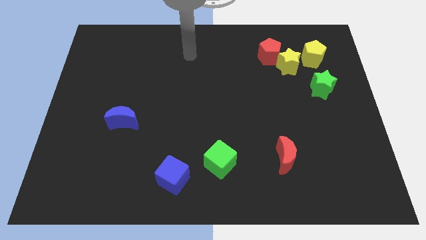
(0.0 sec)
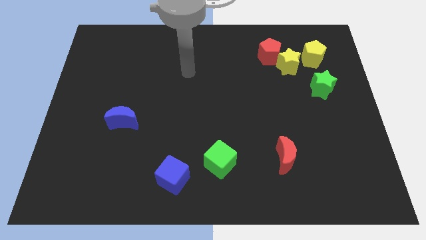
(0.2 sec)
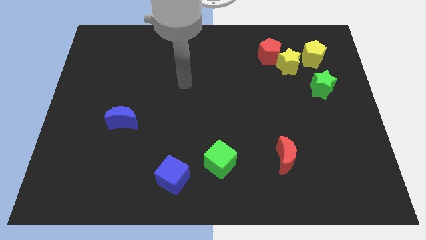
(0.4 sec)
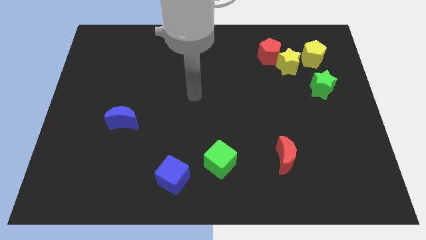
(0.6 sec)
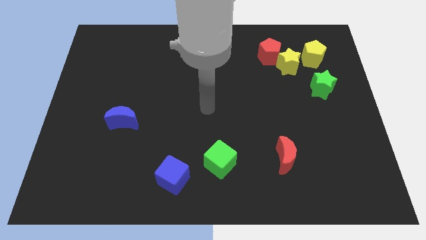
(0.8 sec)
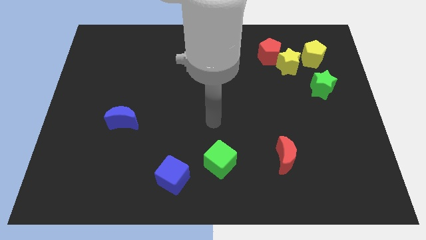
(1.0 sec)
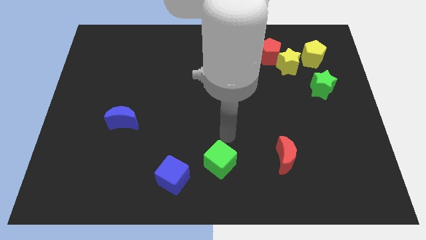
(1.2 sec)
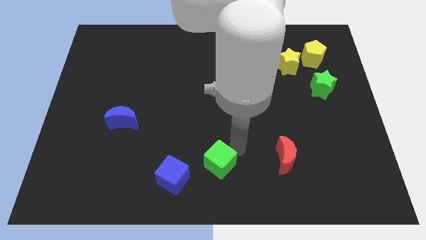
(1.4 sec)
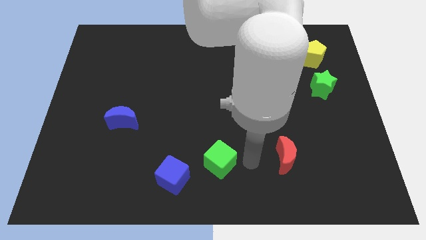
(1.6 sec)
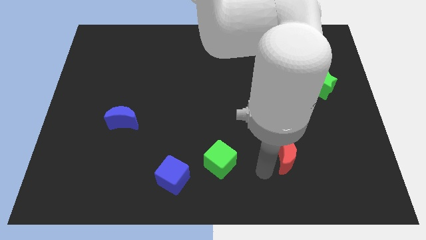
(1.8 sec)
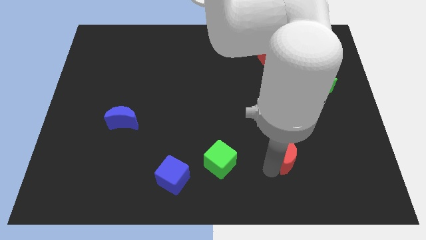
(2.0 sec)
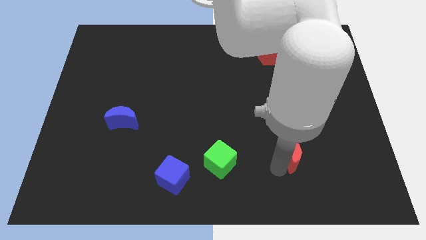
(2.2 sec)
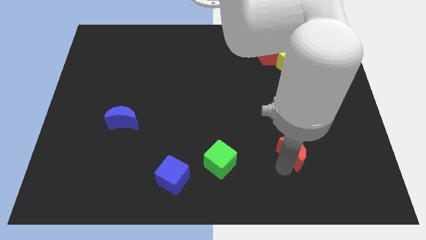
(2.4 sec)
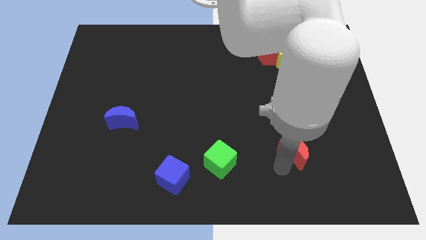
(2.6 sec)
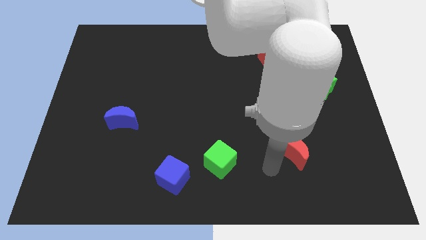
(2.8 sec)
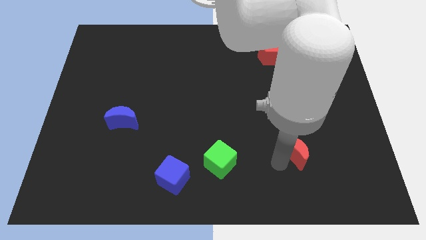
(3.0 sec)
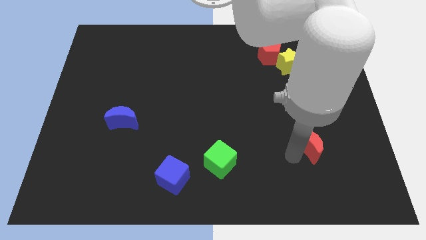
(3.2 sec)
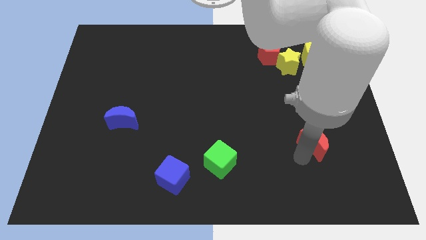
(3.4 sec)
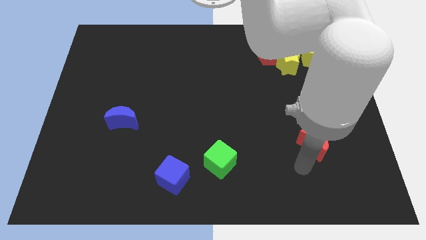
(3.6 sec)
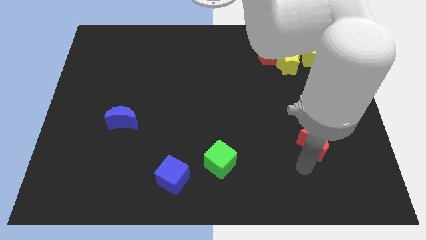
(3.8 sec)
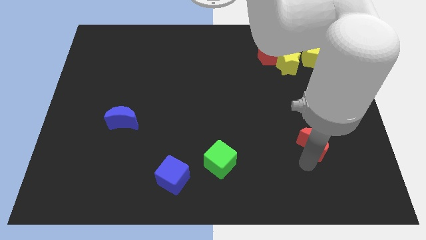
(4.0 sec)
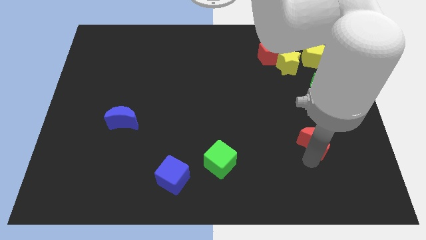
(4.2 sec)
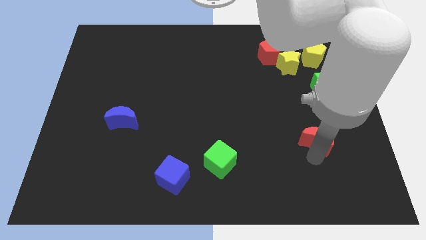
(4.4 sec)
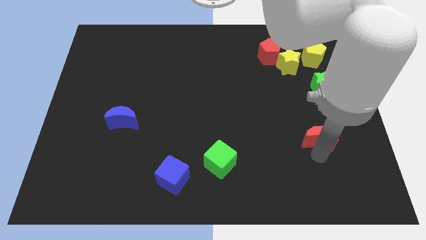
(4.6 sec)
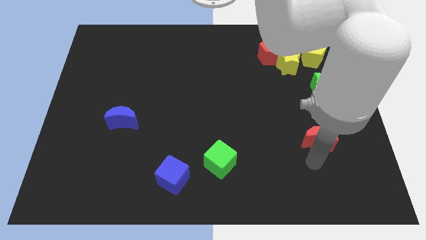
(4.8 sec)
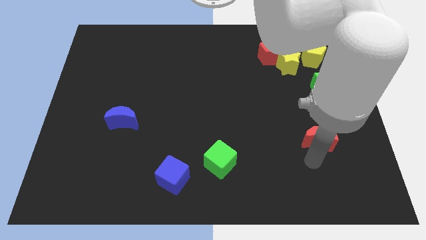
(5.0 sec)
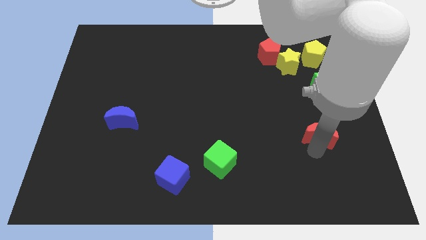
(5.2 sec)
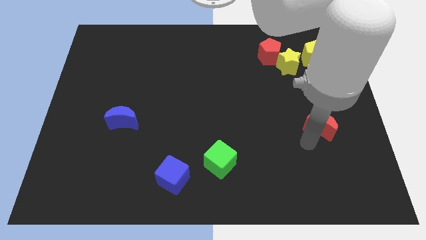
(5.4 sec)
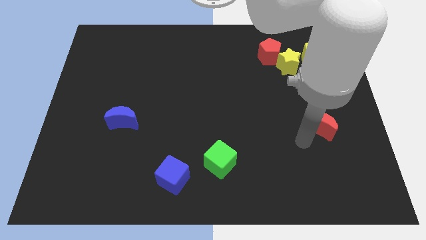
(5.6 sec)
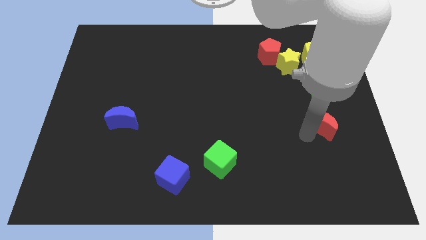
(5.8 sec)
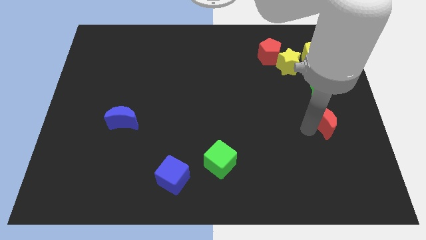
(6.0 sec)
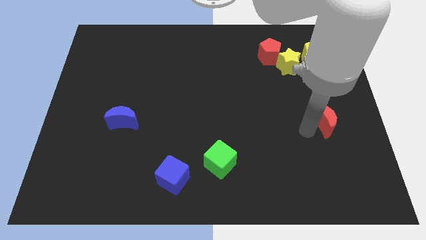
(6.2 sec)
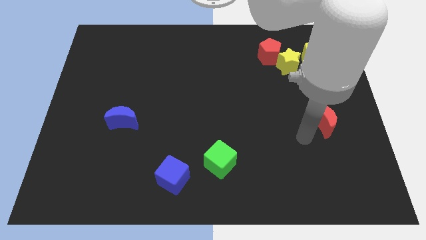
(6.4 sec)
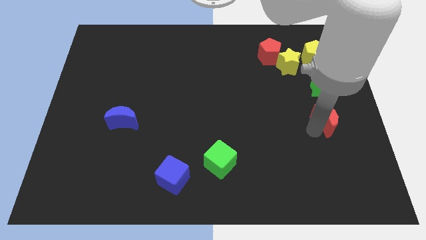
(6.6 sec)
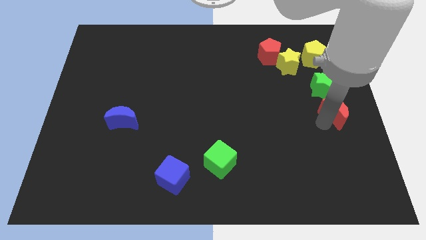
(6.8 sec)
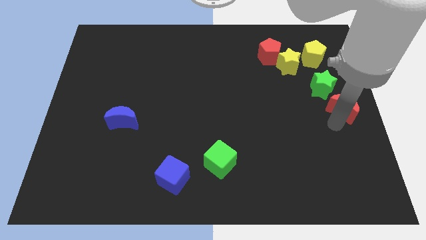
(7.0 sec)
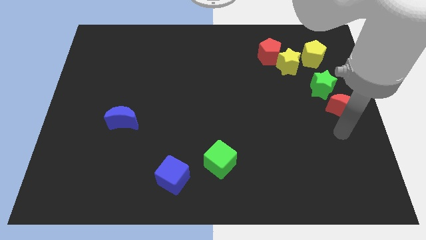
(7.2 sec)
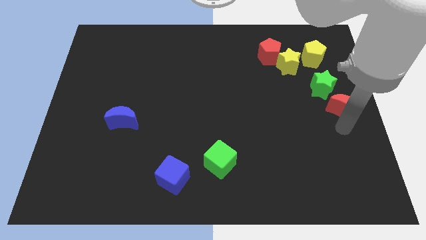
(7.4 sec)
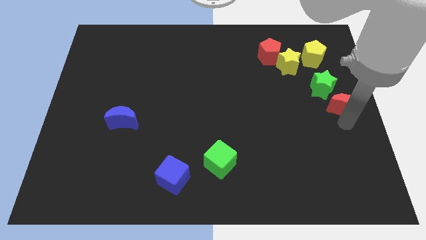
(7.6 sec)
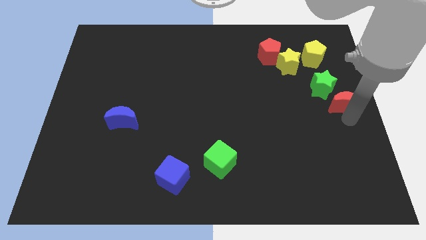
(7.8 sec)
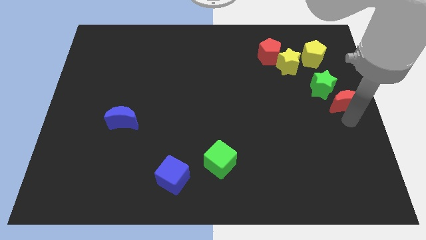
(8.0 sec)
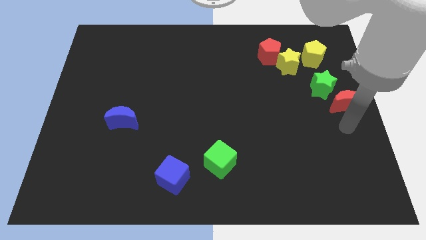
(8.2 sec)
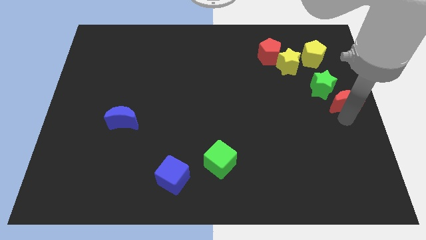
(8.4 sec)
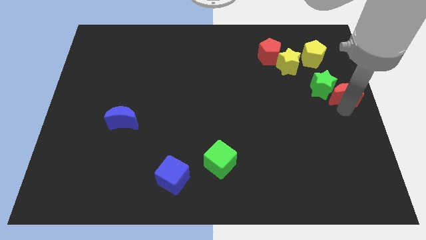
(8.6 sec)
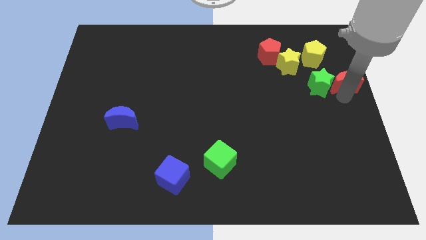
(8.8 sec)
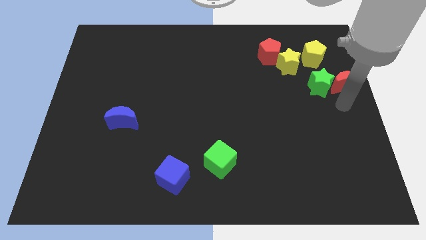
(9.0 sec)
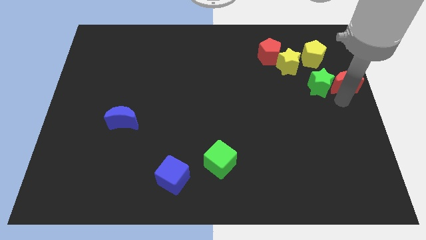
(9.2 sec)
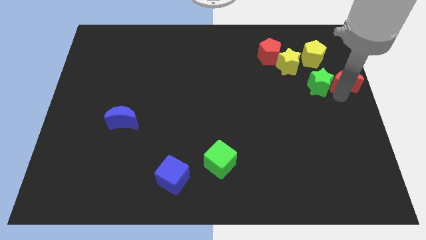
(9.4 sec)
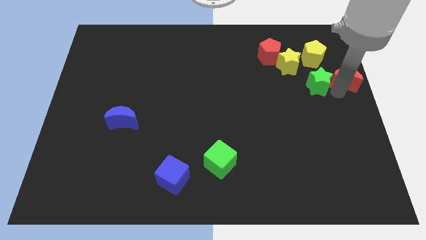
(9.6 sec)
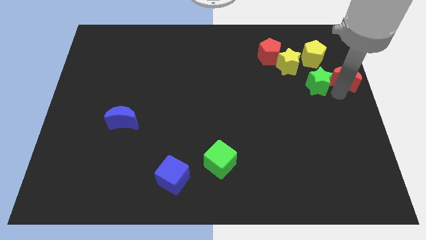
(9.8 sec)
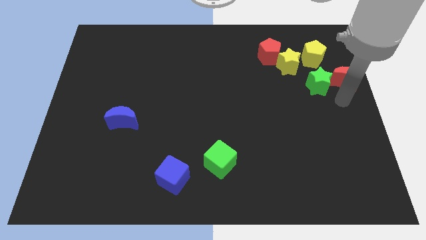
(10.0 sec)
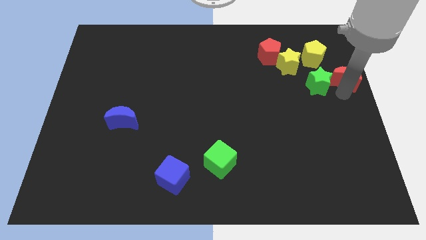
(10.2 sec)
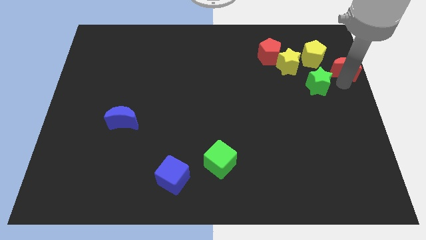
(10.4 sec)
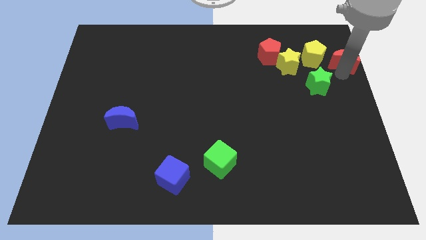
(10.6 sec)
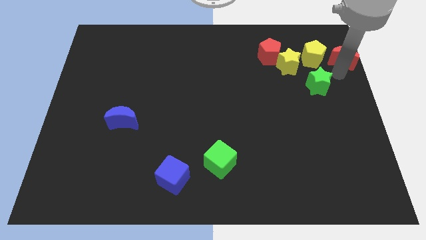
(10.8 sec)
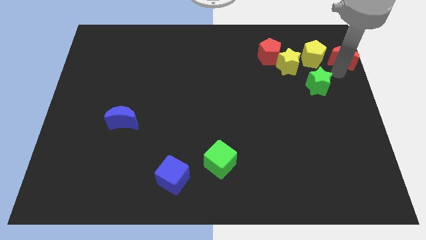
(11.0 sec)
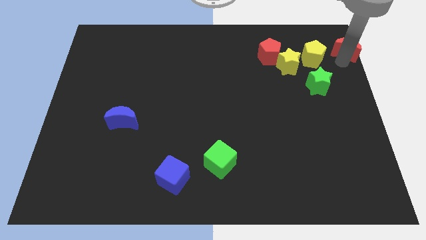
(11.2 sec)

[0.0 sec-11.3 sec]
push the red moon to the top right

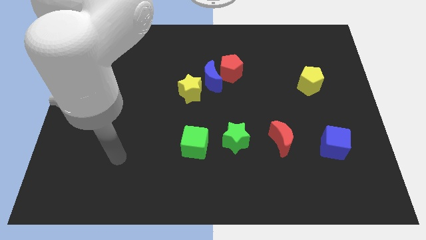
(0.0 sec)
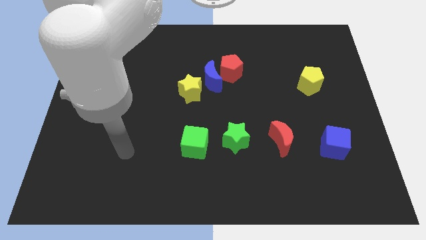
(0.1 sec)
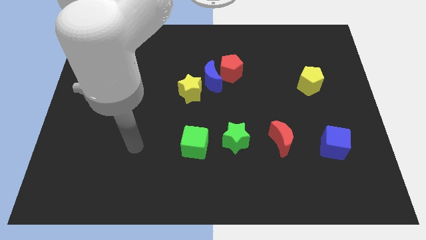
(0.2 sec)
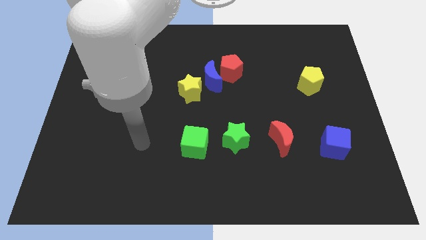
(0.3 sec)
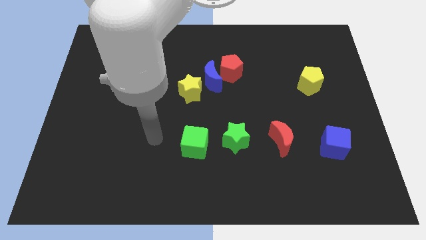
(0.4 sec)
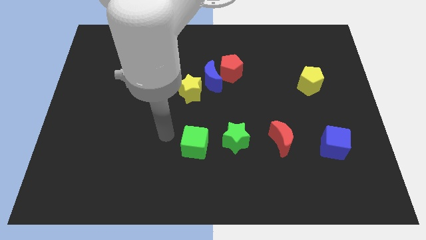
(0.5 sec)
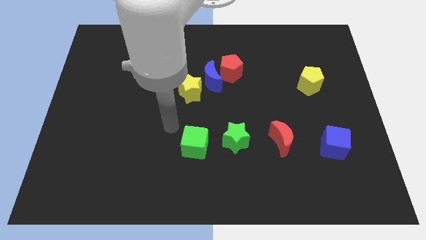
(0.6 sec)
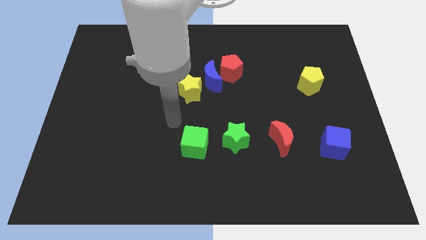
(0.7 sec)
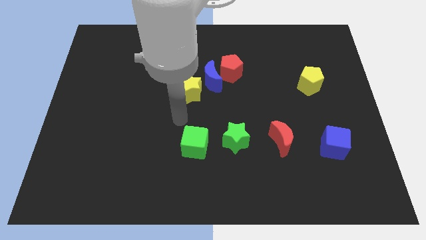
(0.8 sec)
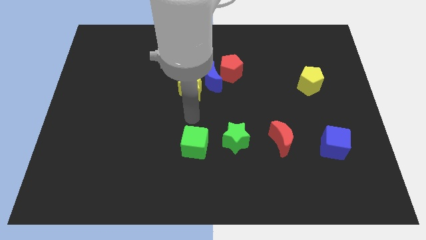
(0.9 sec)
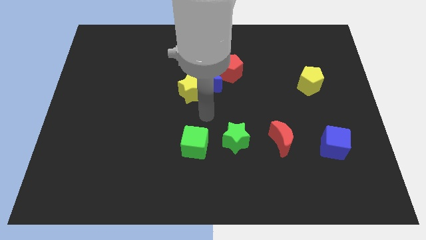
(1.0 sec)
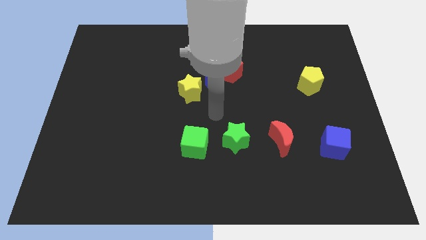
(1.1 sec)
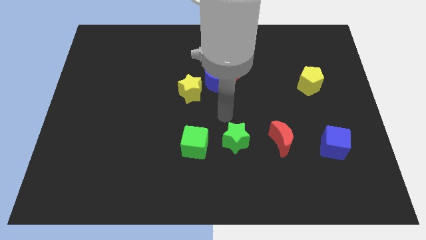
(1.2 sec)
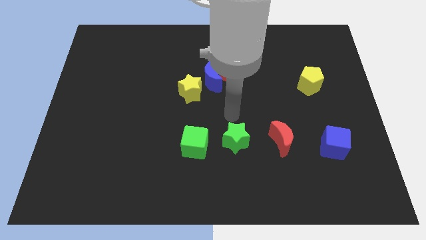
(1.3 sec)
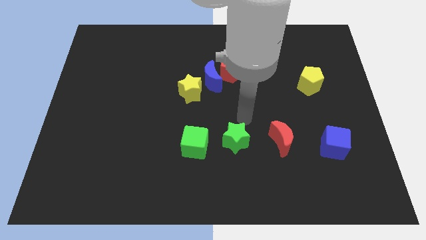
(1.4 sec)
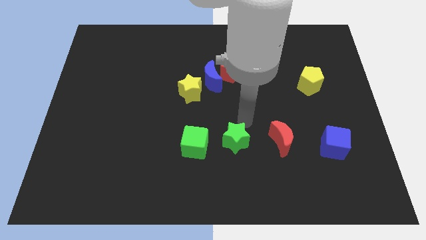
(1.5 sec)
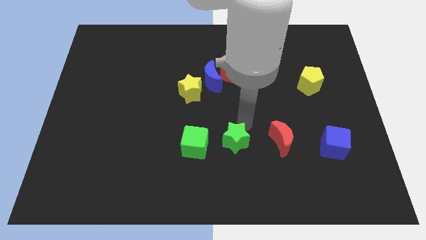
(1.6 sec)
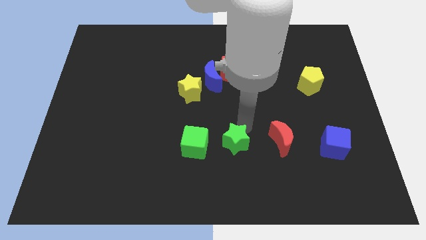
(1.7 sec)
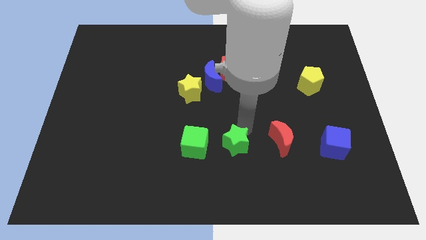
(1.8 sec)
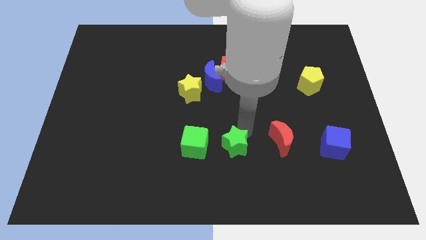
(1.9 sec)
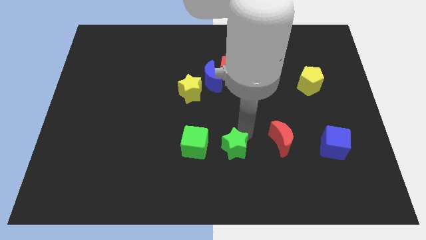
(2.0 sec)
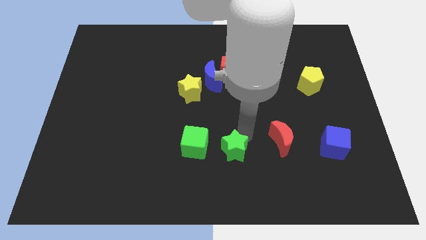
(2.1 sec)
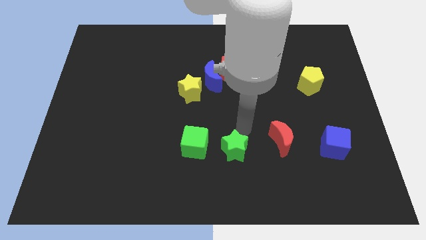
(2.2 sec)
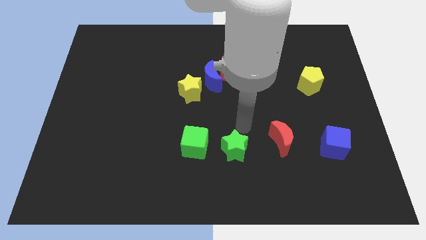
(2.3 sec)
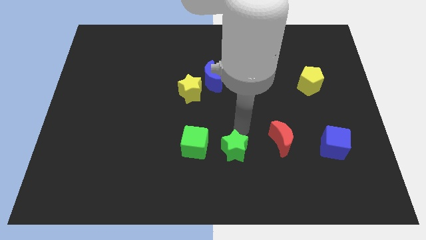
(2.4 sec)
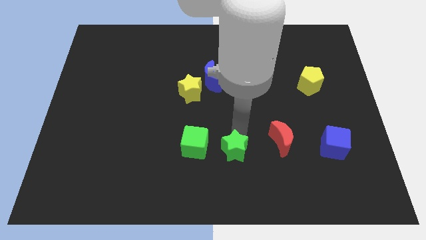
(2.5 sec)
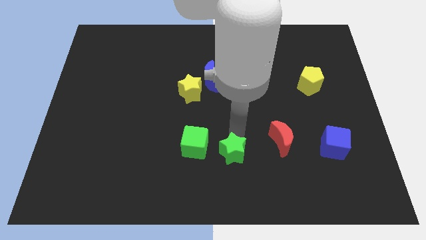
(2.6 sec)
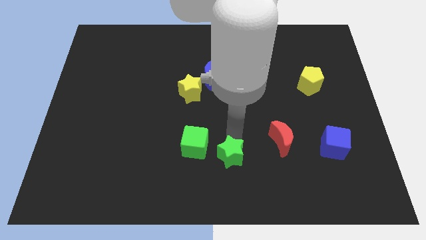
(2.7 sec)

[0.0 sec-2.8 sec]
put the green star to the bottom side
